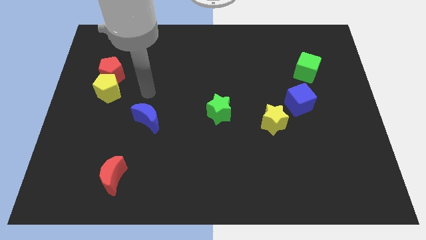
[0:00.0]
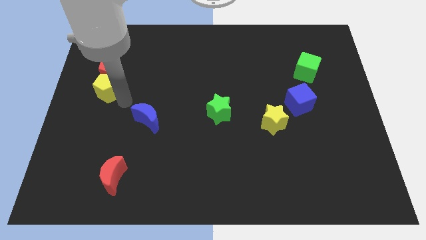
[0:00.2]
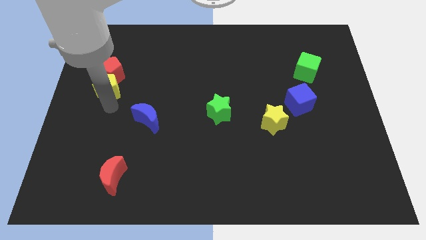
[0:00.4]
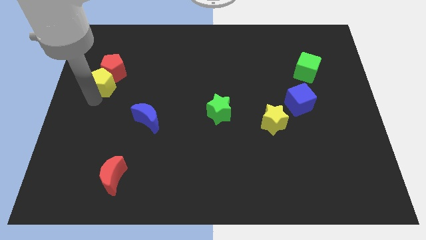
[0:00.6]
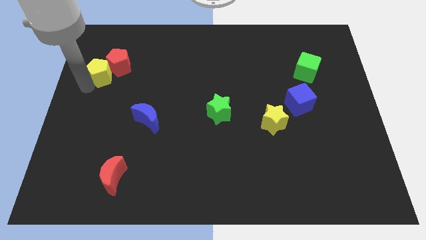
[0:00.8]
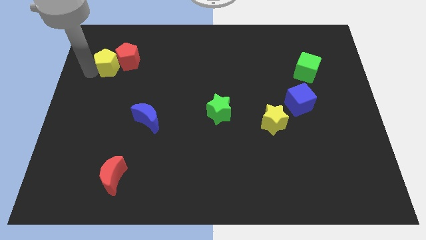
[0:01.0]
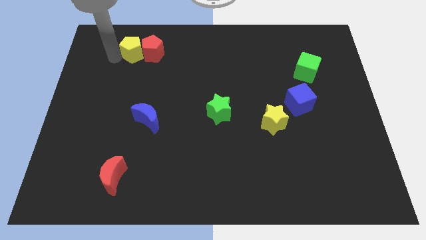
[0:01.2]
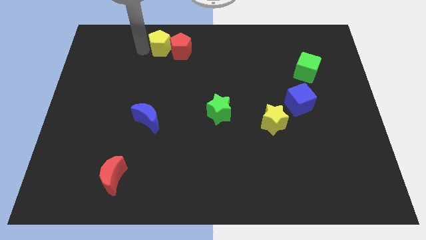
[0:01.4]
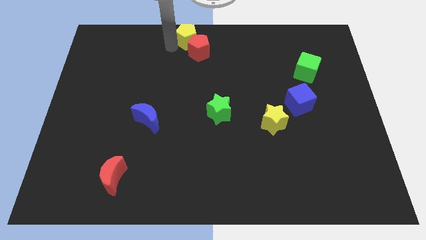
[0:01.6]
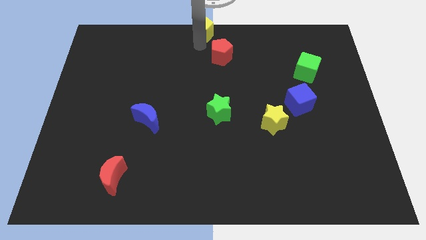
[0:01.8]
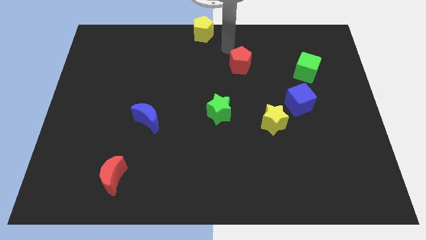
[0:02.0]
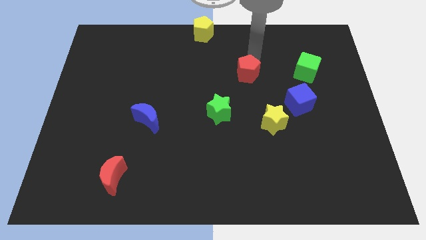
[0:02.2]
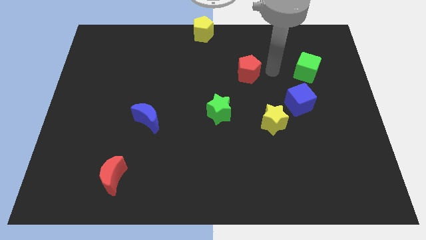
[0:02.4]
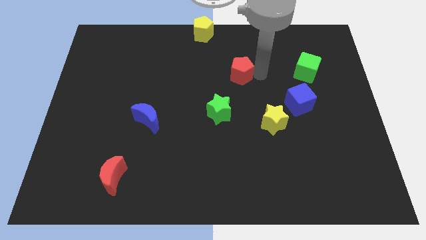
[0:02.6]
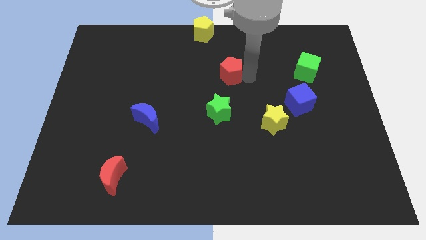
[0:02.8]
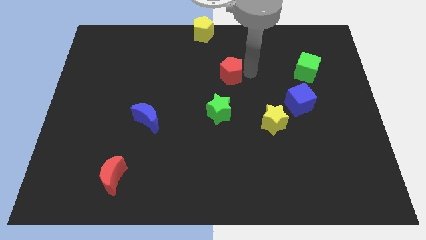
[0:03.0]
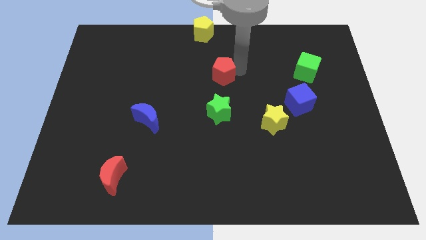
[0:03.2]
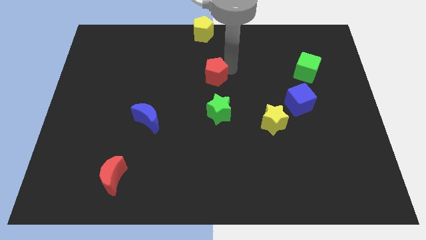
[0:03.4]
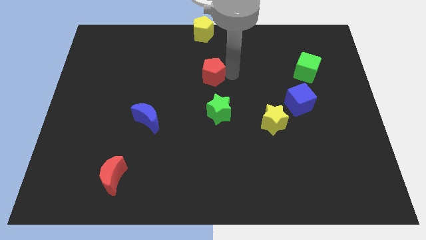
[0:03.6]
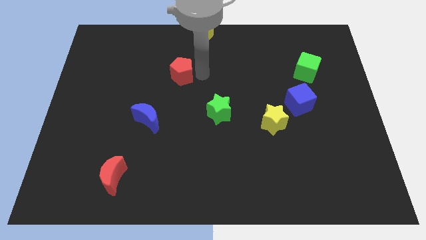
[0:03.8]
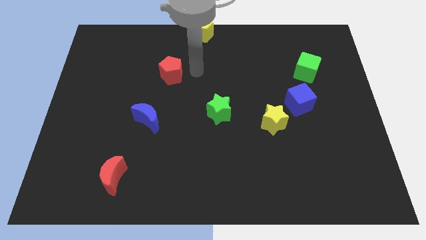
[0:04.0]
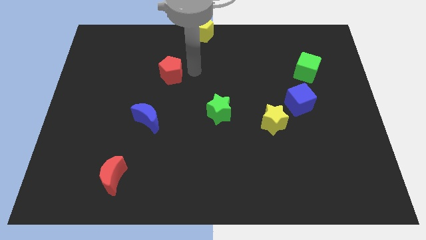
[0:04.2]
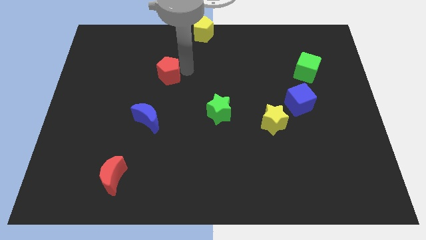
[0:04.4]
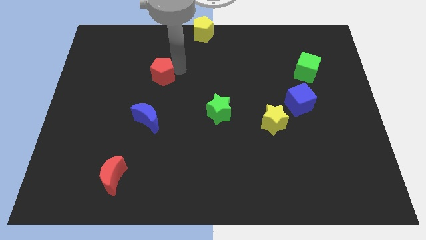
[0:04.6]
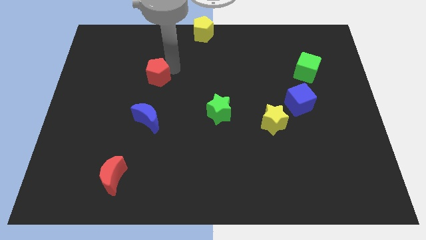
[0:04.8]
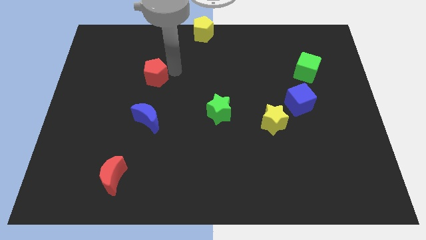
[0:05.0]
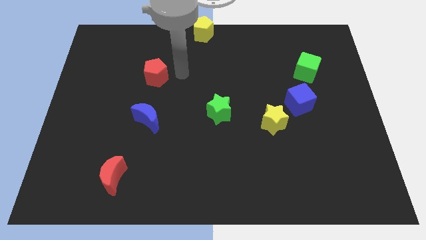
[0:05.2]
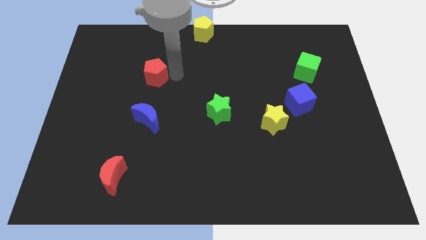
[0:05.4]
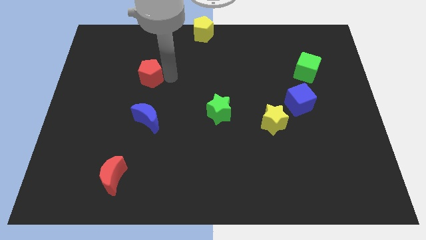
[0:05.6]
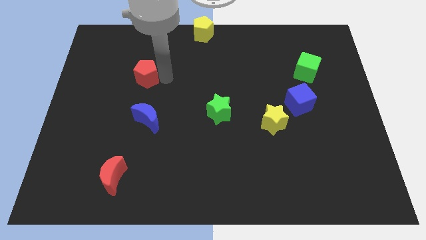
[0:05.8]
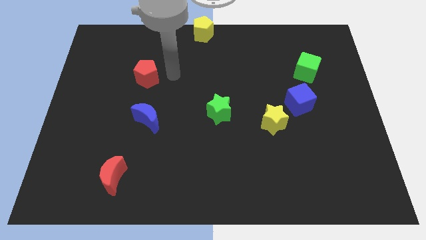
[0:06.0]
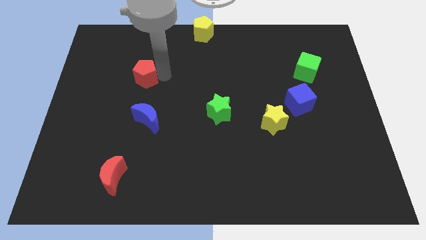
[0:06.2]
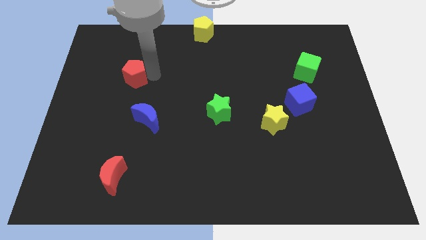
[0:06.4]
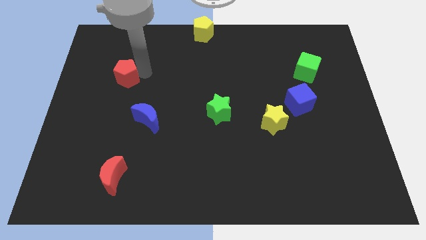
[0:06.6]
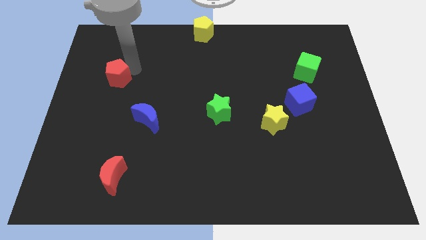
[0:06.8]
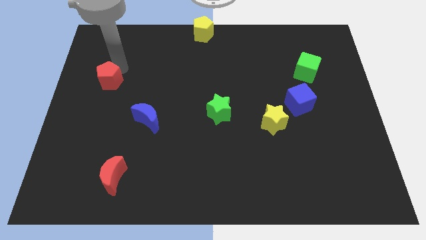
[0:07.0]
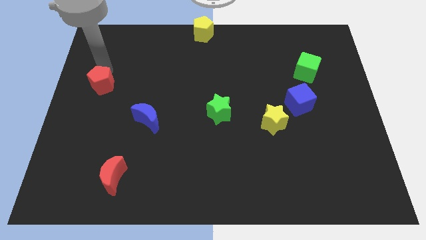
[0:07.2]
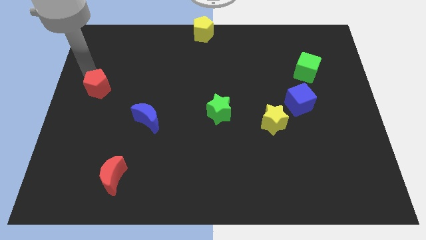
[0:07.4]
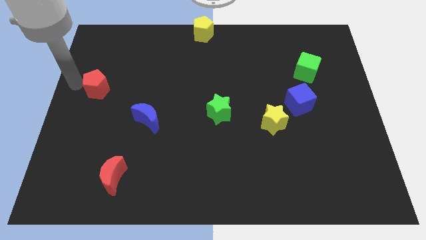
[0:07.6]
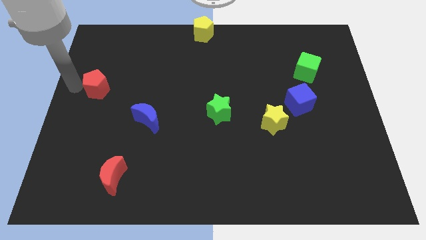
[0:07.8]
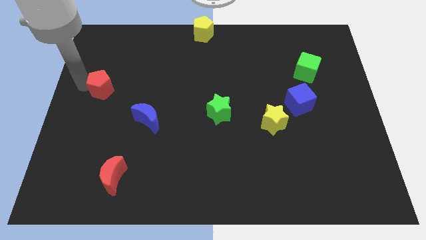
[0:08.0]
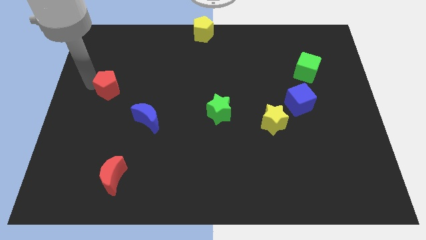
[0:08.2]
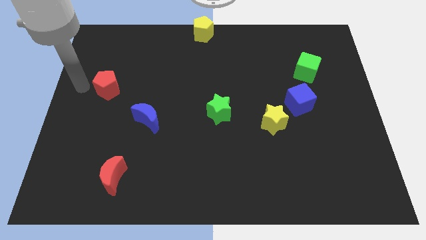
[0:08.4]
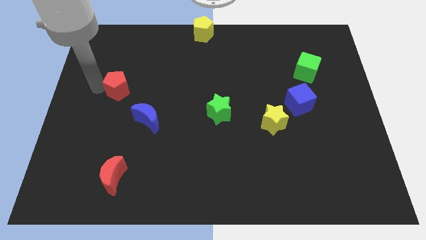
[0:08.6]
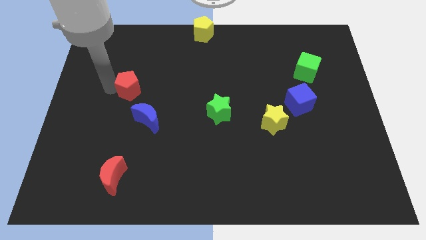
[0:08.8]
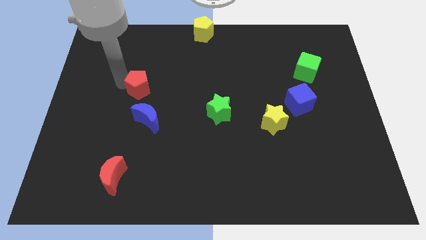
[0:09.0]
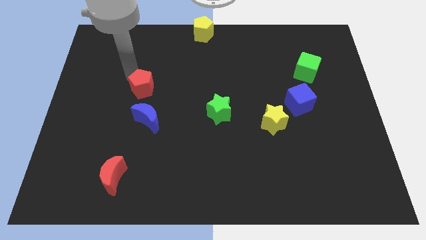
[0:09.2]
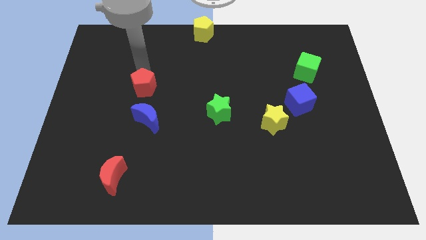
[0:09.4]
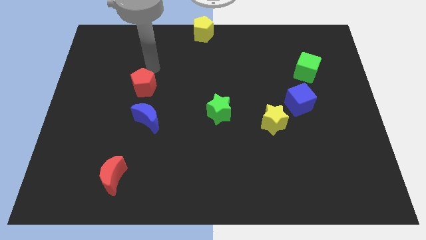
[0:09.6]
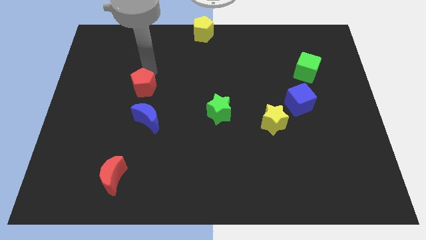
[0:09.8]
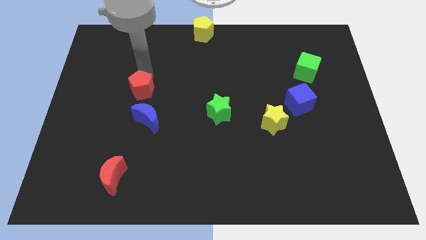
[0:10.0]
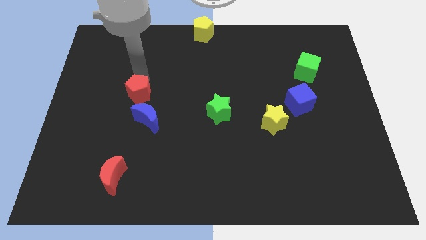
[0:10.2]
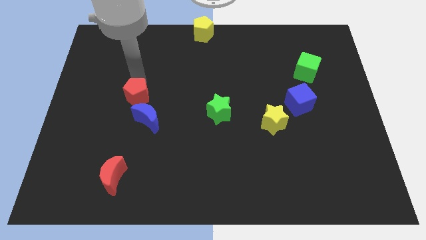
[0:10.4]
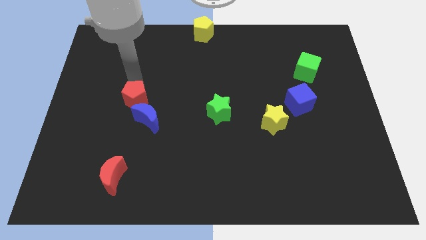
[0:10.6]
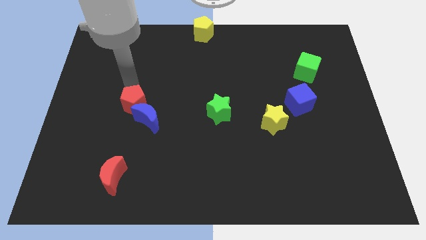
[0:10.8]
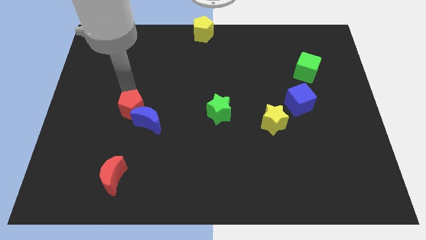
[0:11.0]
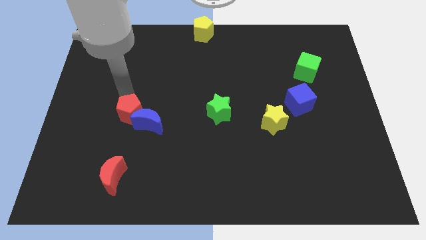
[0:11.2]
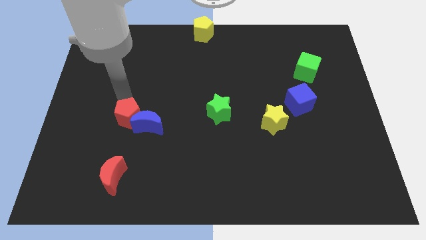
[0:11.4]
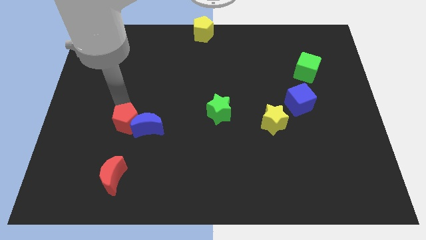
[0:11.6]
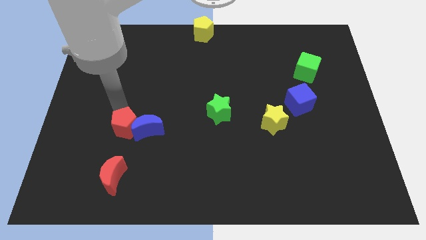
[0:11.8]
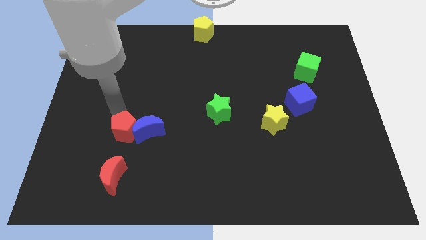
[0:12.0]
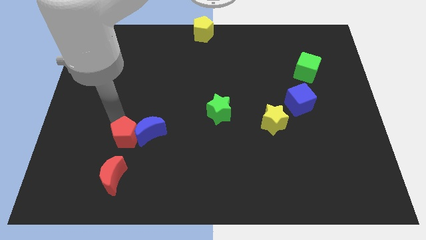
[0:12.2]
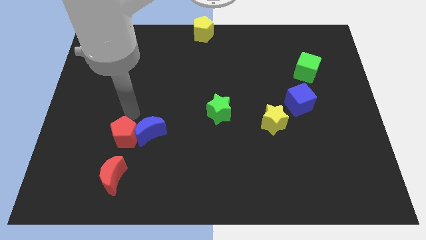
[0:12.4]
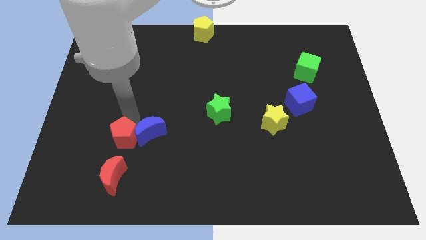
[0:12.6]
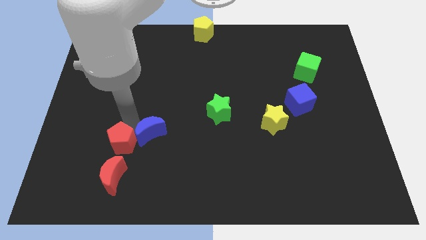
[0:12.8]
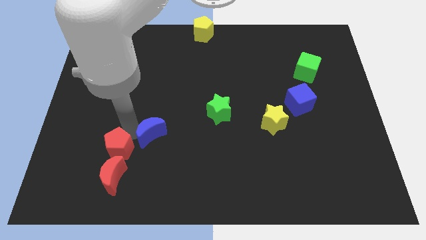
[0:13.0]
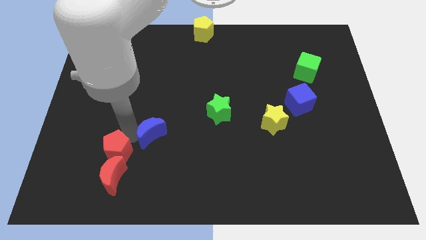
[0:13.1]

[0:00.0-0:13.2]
put the red pentagon to the red moon

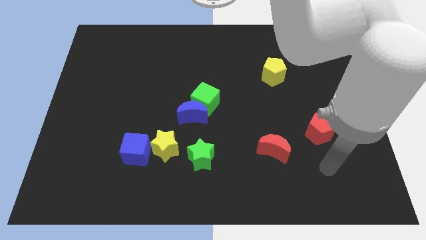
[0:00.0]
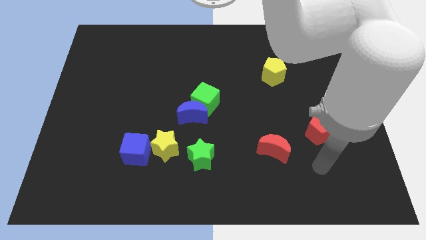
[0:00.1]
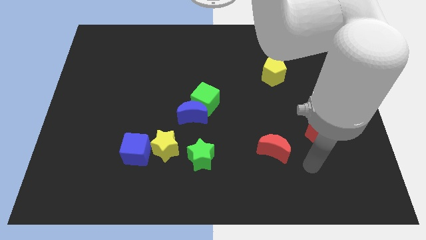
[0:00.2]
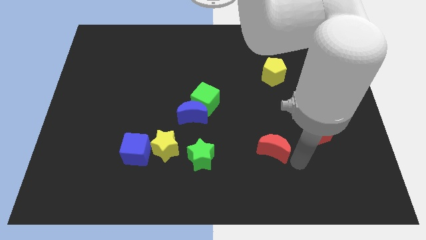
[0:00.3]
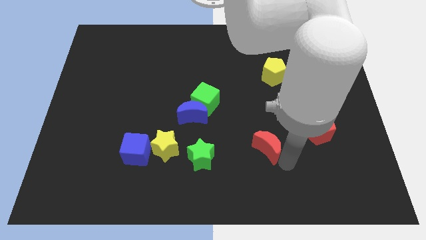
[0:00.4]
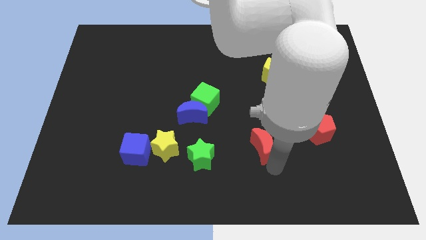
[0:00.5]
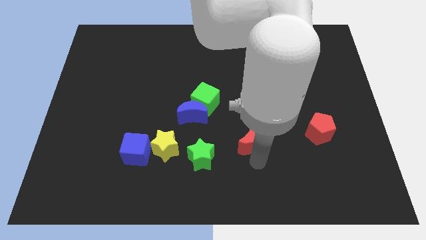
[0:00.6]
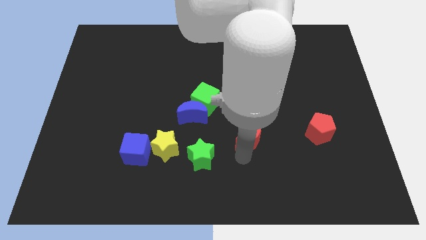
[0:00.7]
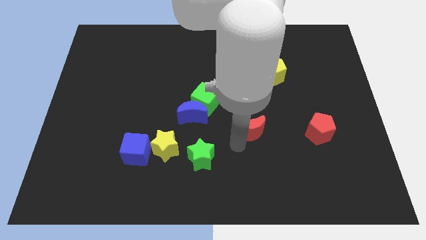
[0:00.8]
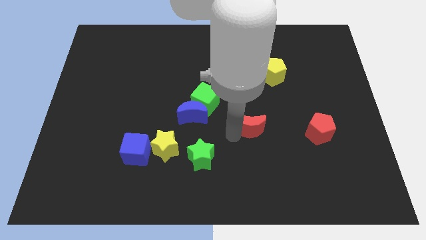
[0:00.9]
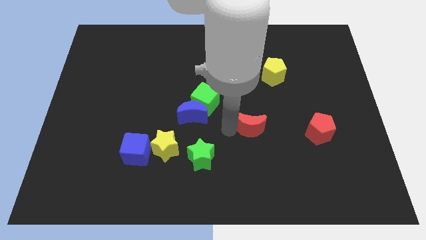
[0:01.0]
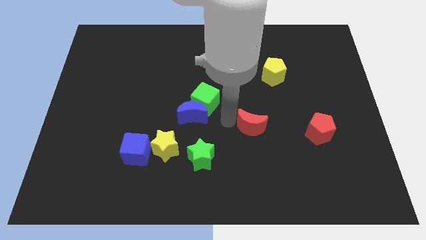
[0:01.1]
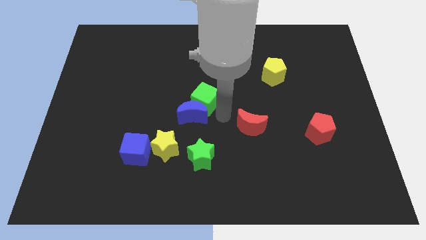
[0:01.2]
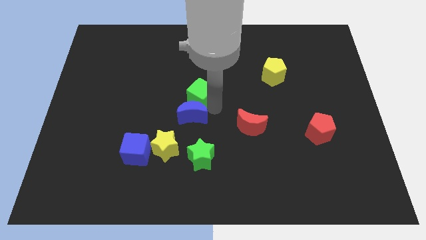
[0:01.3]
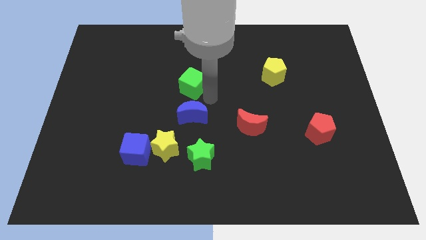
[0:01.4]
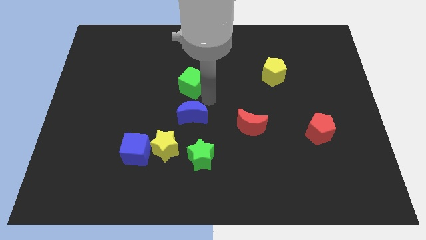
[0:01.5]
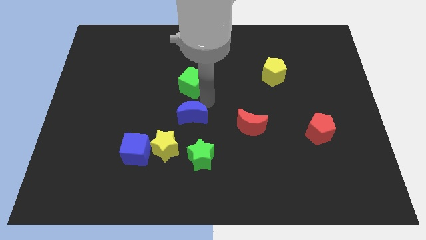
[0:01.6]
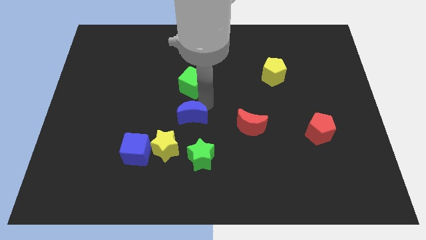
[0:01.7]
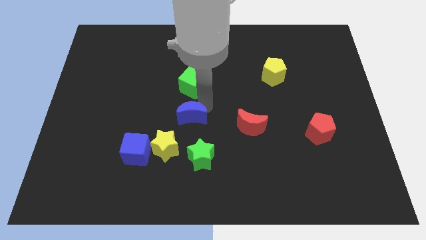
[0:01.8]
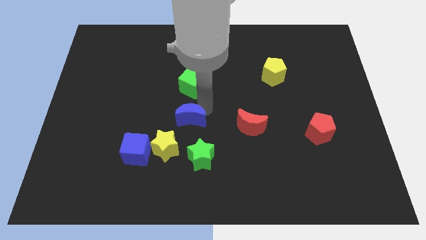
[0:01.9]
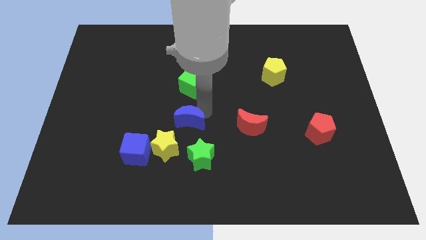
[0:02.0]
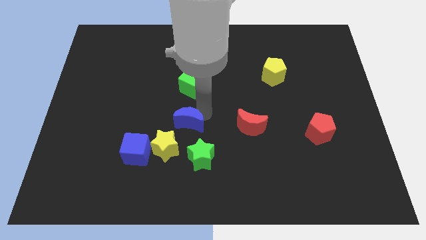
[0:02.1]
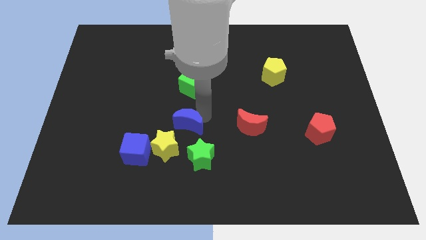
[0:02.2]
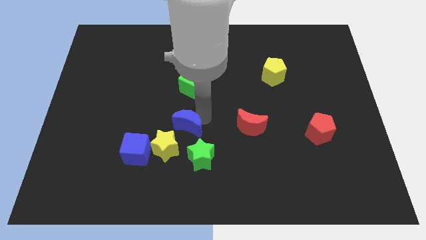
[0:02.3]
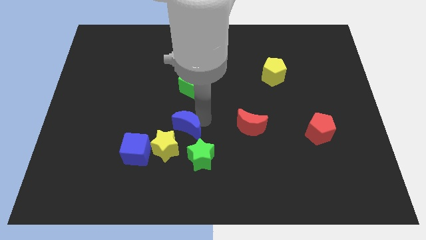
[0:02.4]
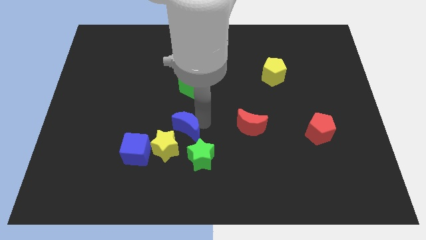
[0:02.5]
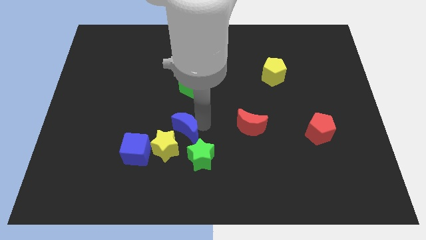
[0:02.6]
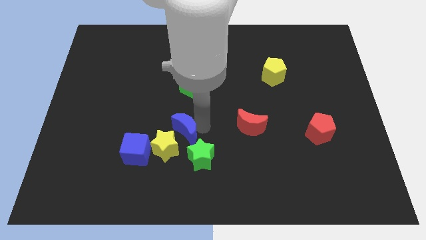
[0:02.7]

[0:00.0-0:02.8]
push the blue moon close to the yellow star
